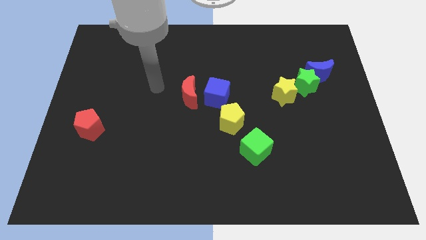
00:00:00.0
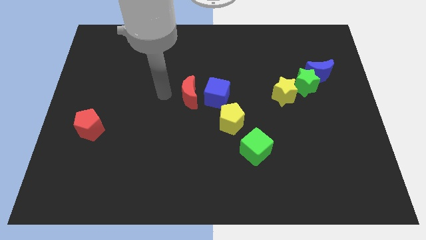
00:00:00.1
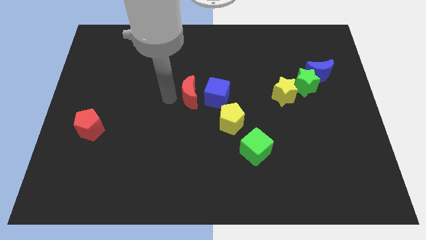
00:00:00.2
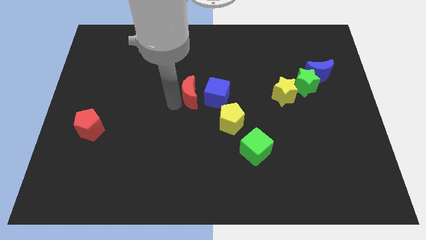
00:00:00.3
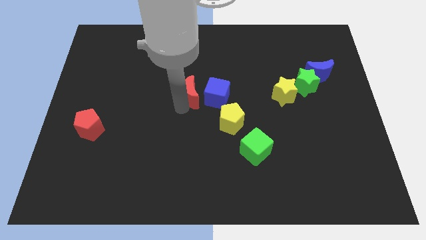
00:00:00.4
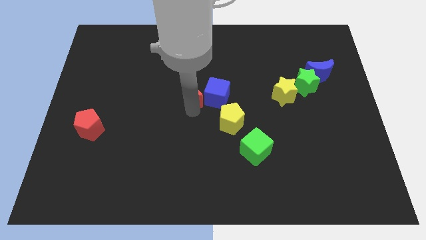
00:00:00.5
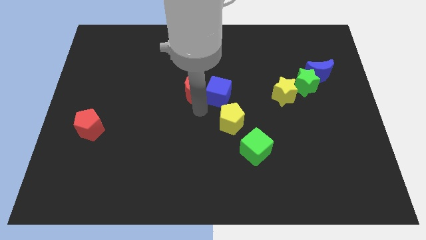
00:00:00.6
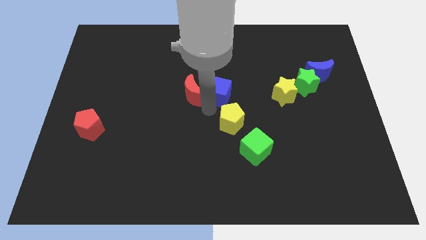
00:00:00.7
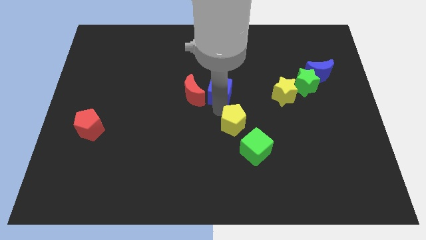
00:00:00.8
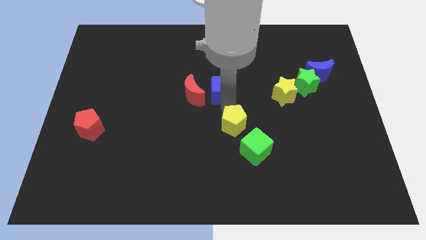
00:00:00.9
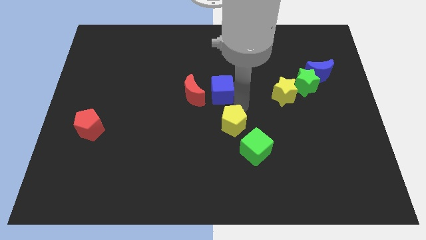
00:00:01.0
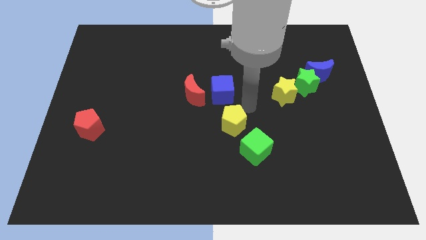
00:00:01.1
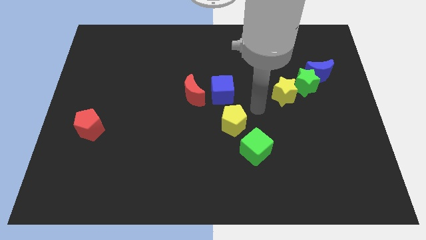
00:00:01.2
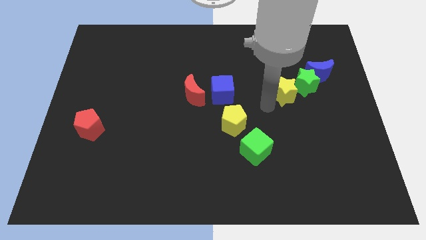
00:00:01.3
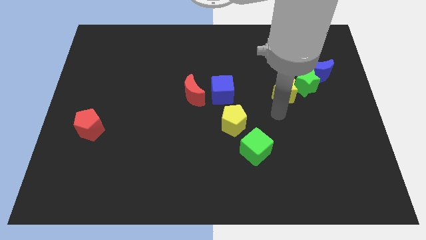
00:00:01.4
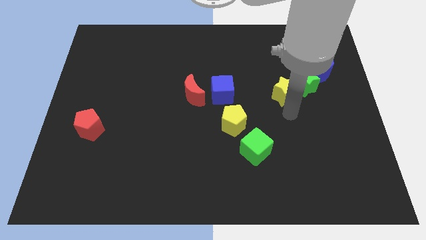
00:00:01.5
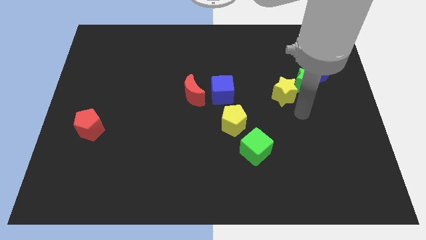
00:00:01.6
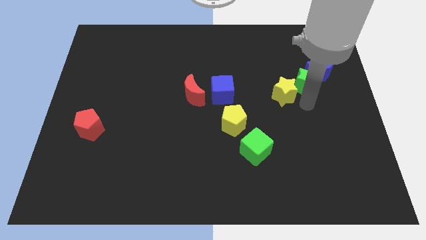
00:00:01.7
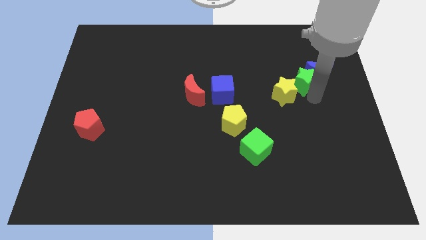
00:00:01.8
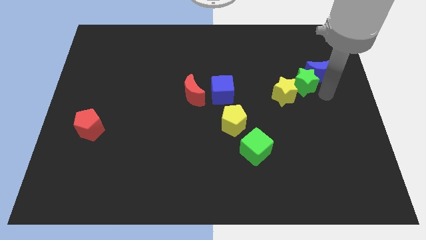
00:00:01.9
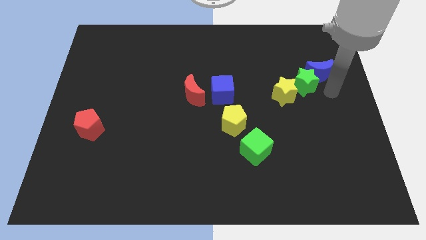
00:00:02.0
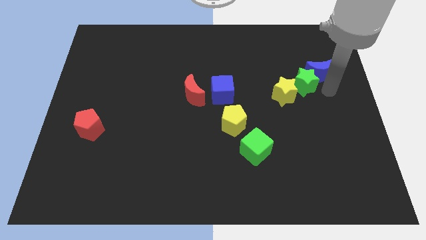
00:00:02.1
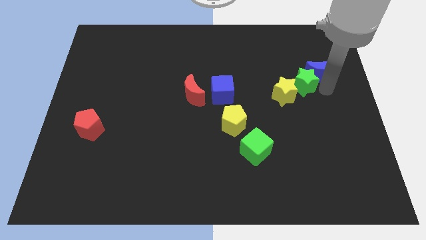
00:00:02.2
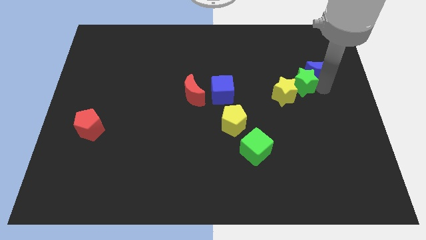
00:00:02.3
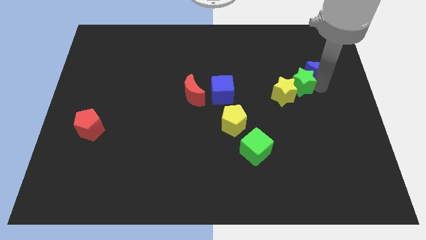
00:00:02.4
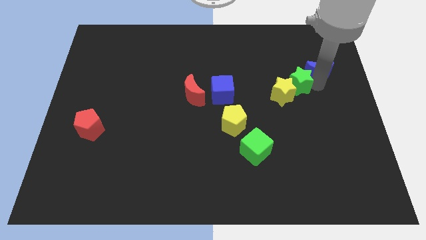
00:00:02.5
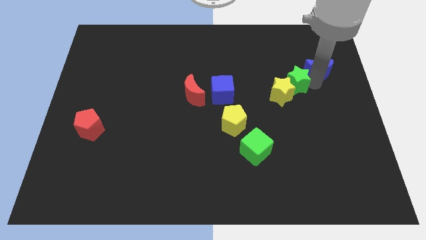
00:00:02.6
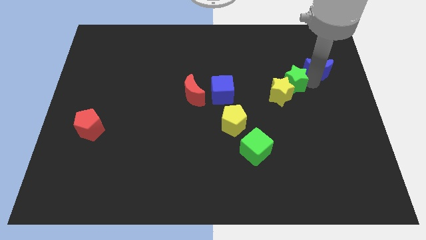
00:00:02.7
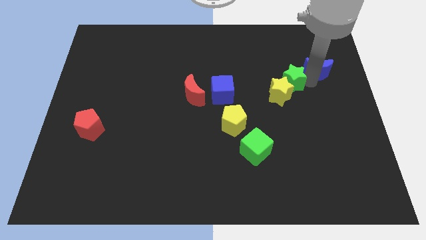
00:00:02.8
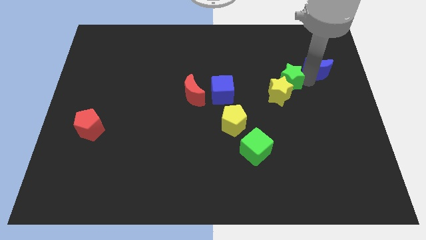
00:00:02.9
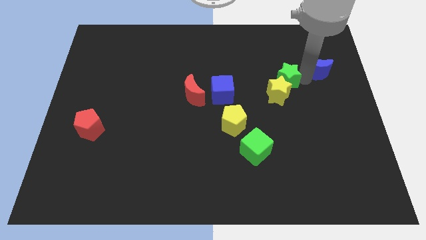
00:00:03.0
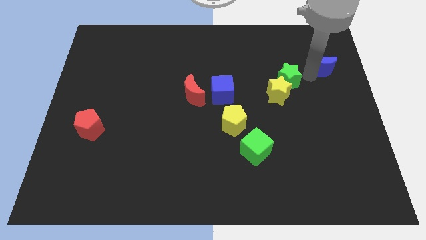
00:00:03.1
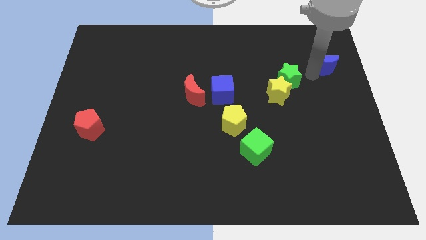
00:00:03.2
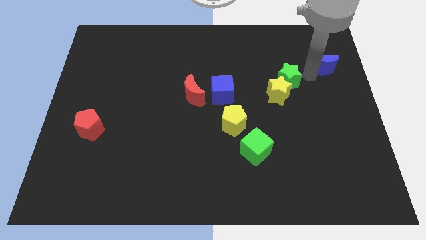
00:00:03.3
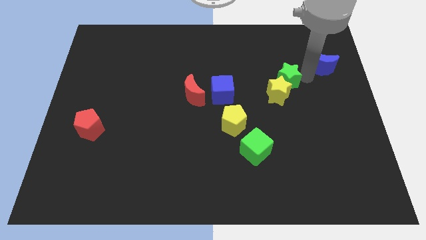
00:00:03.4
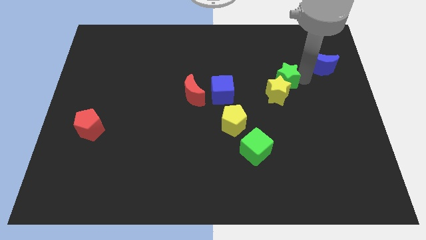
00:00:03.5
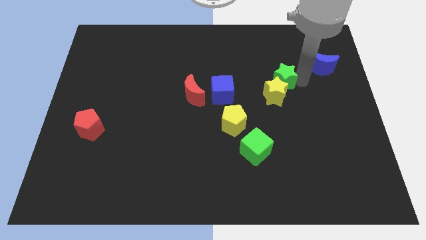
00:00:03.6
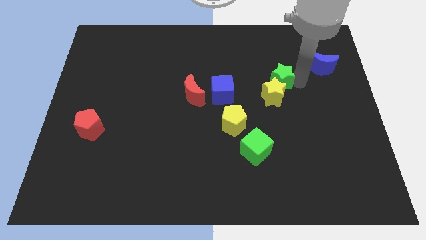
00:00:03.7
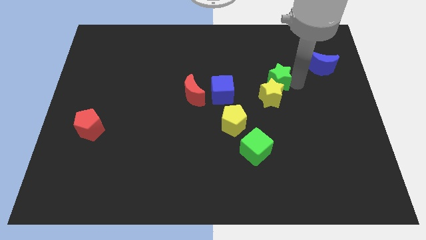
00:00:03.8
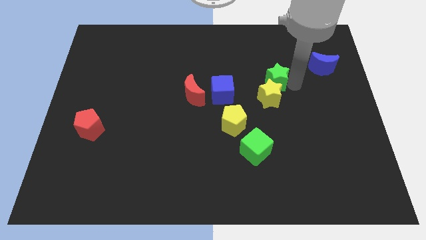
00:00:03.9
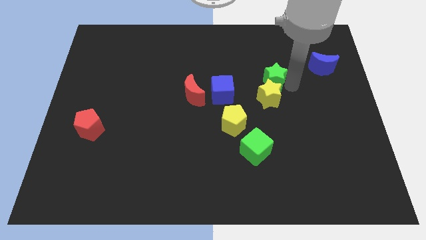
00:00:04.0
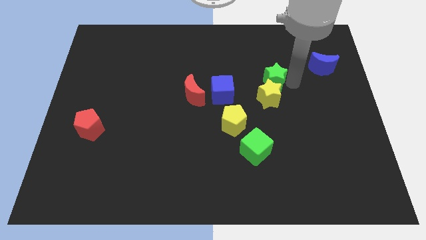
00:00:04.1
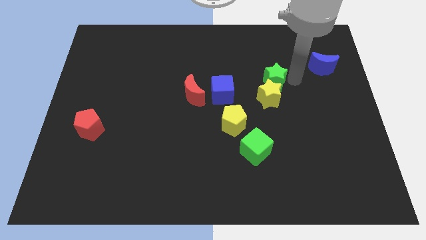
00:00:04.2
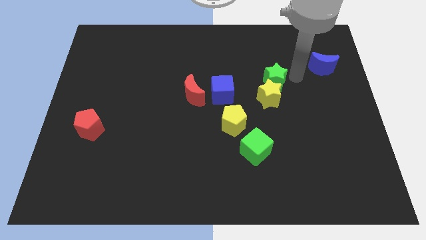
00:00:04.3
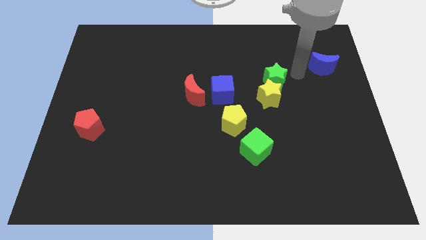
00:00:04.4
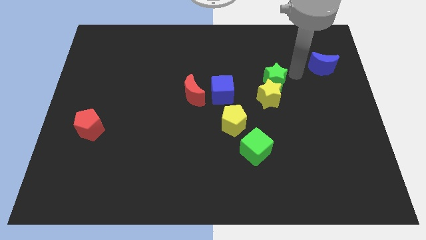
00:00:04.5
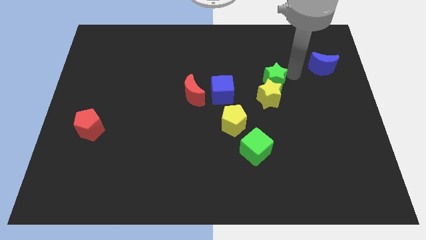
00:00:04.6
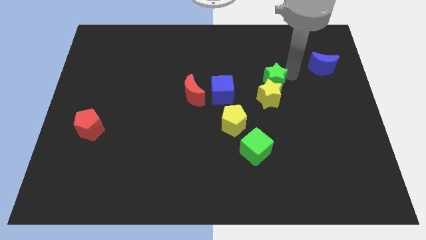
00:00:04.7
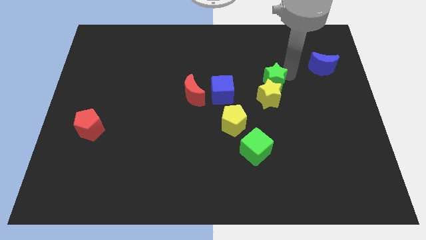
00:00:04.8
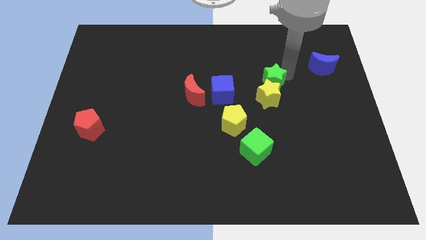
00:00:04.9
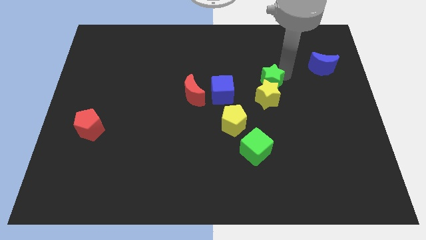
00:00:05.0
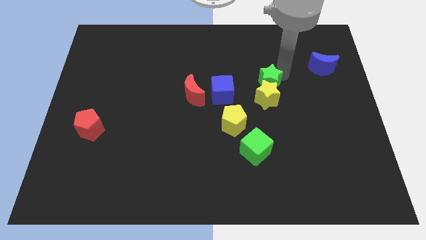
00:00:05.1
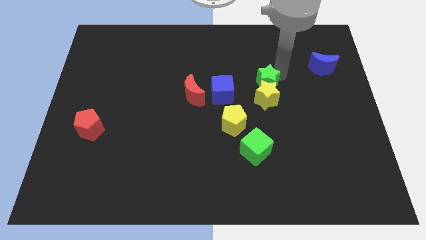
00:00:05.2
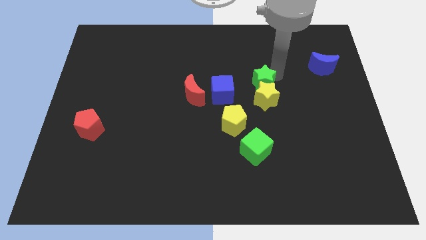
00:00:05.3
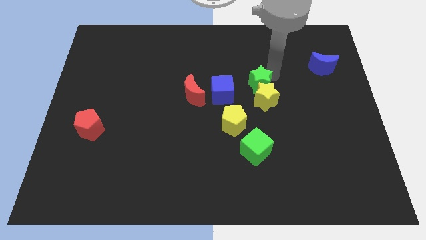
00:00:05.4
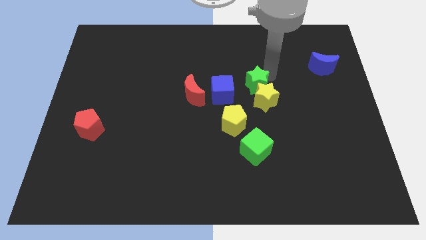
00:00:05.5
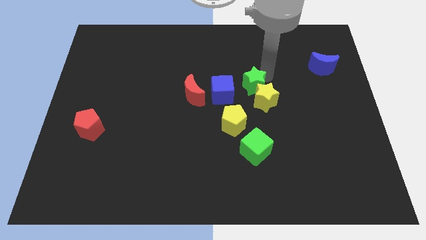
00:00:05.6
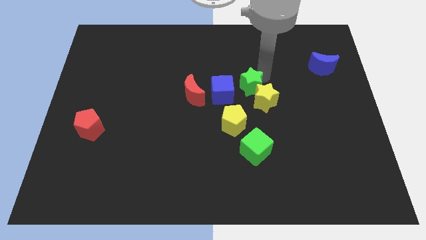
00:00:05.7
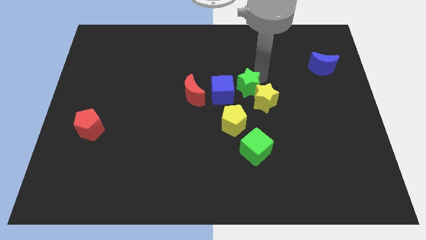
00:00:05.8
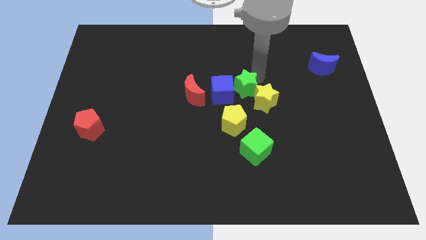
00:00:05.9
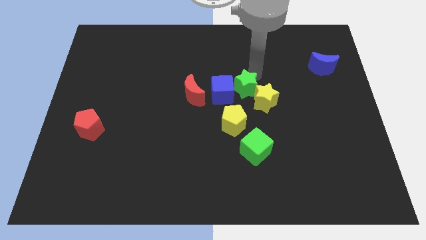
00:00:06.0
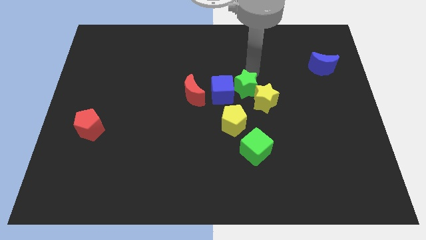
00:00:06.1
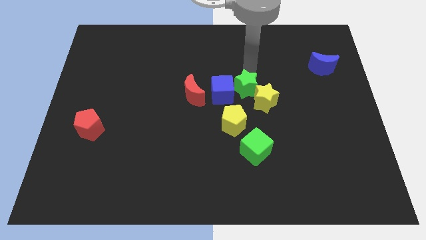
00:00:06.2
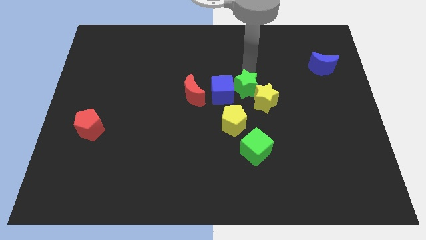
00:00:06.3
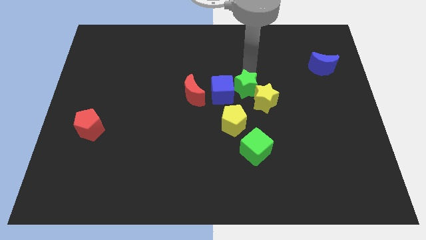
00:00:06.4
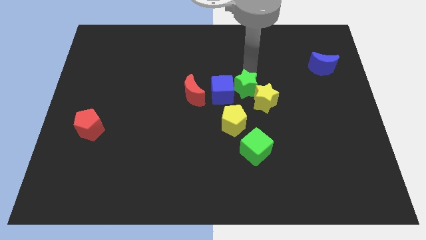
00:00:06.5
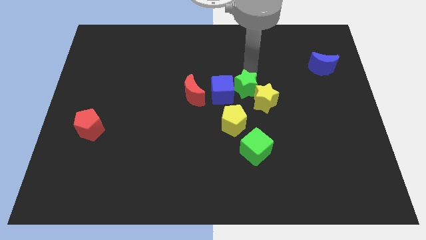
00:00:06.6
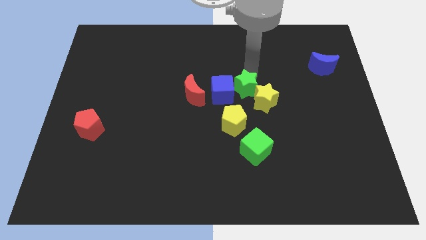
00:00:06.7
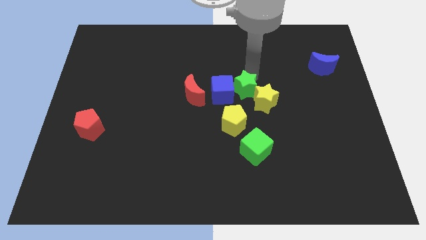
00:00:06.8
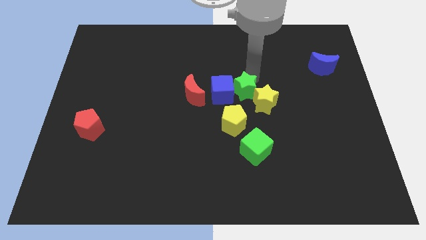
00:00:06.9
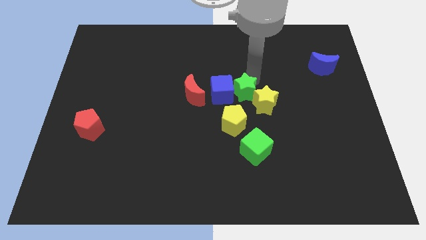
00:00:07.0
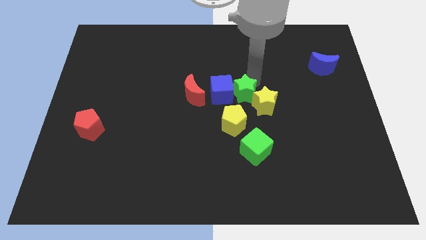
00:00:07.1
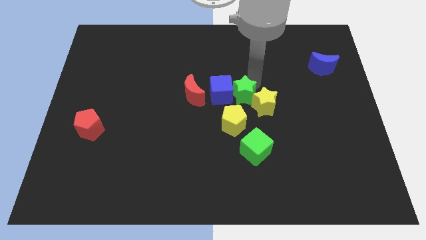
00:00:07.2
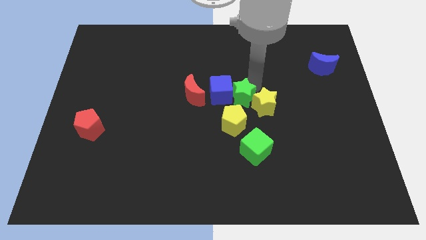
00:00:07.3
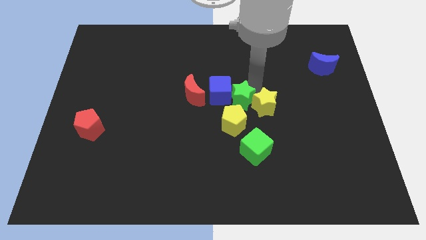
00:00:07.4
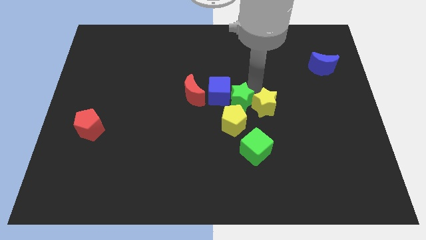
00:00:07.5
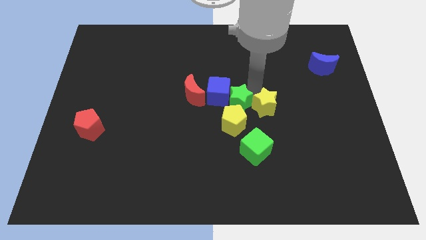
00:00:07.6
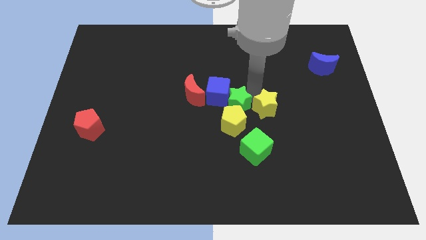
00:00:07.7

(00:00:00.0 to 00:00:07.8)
push the green star towards the yellow pentagon
